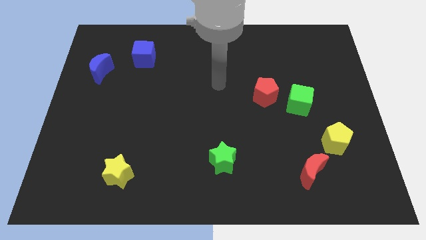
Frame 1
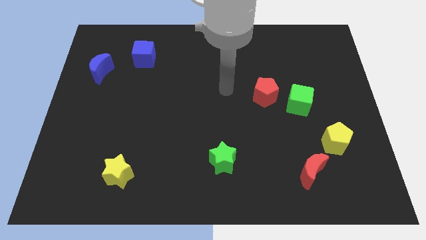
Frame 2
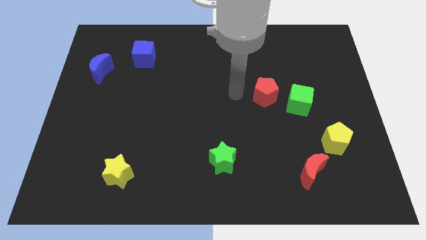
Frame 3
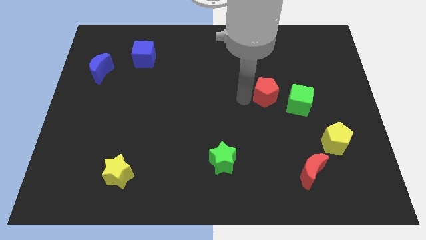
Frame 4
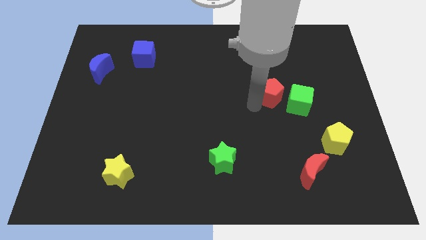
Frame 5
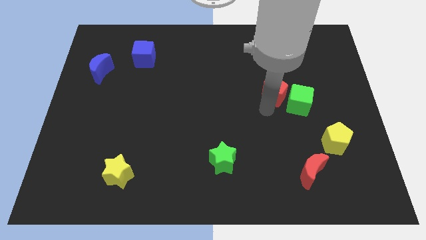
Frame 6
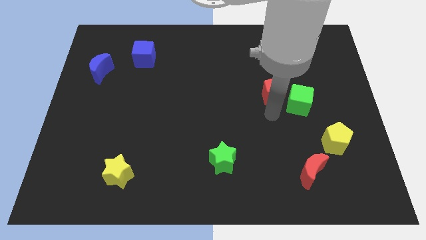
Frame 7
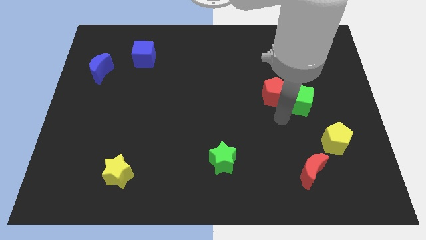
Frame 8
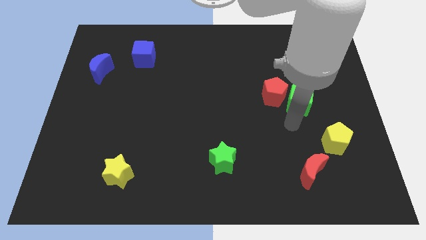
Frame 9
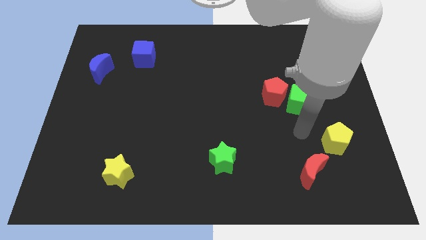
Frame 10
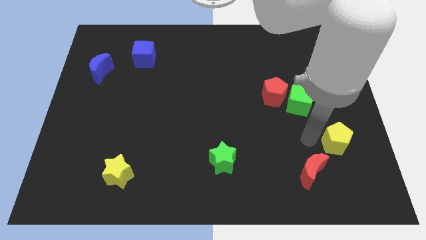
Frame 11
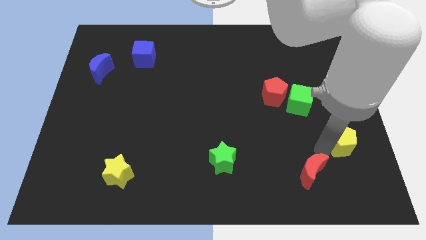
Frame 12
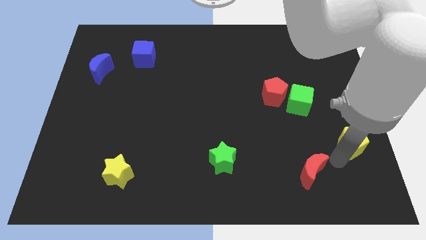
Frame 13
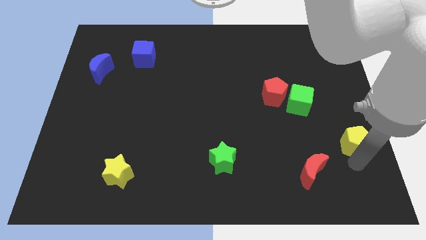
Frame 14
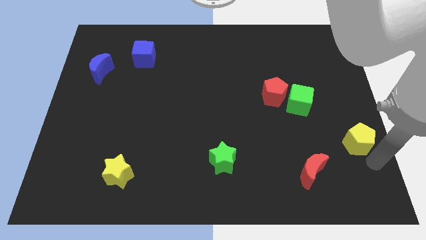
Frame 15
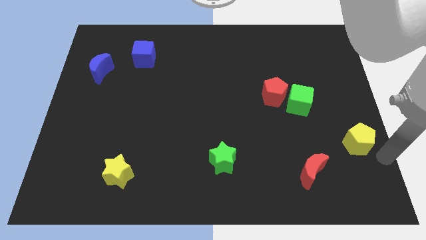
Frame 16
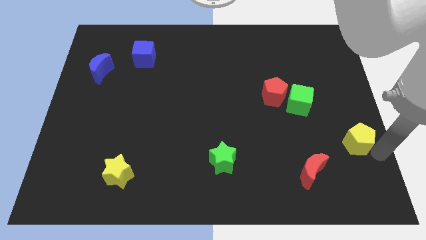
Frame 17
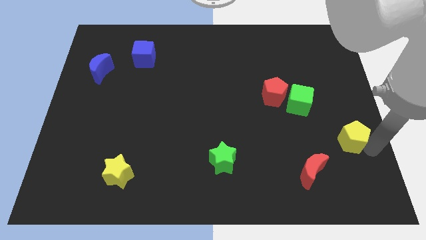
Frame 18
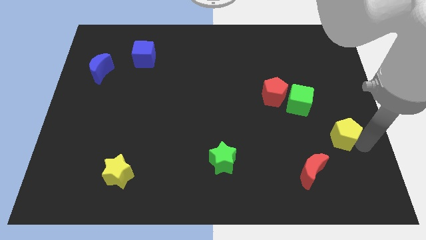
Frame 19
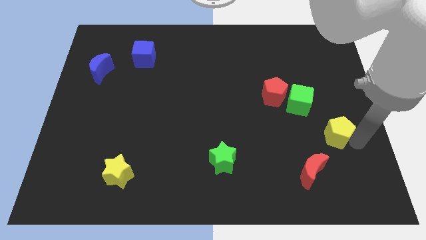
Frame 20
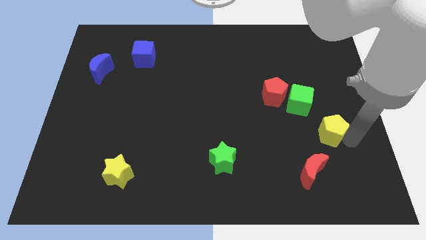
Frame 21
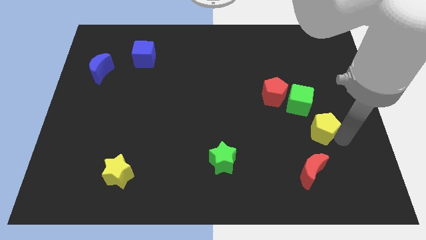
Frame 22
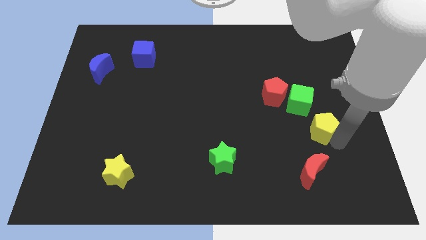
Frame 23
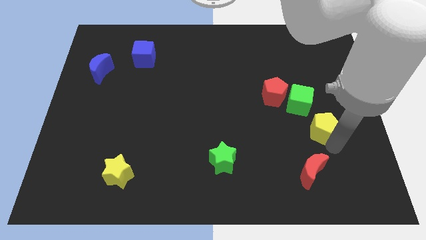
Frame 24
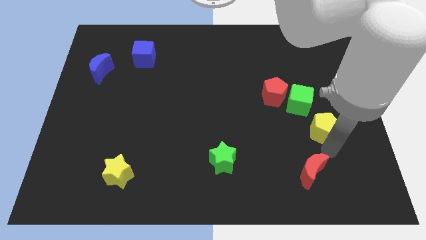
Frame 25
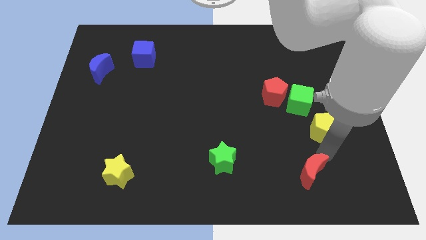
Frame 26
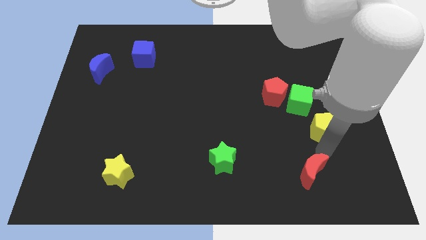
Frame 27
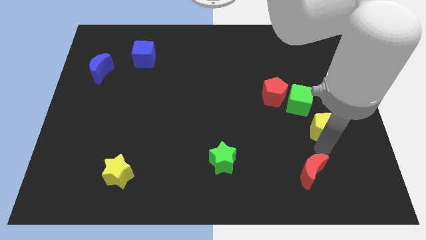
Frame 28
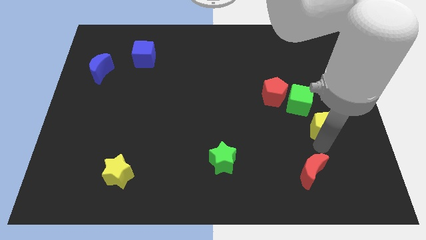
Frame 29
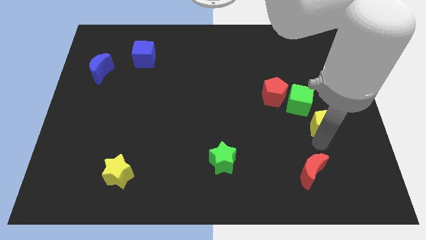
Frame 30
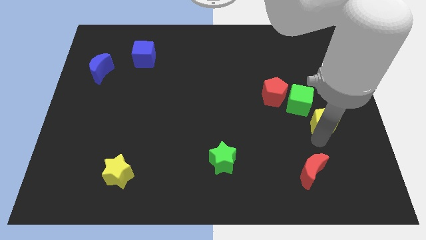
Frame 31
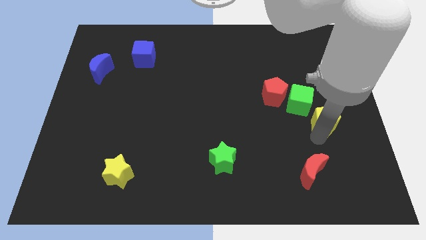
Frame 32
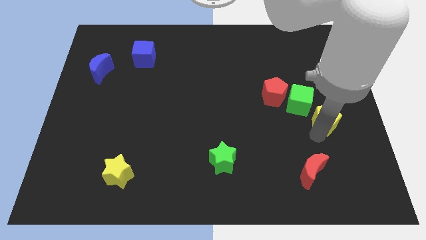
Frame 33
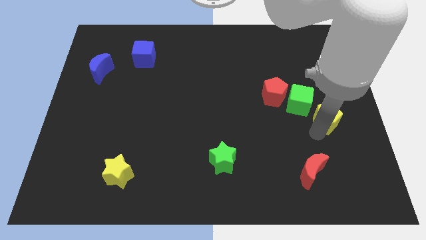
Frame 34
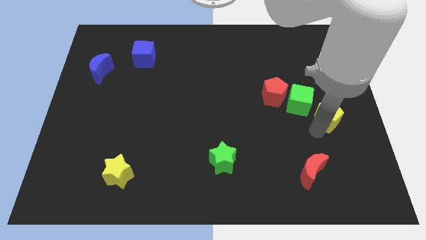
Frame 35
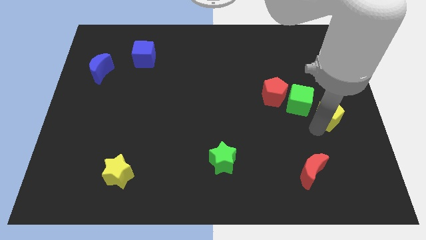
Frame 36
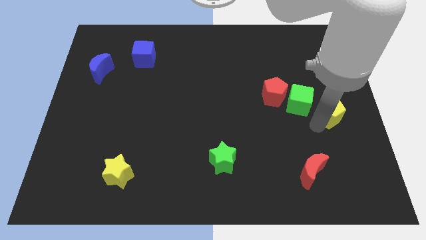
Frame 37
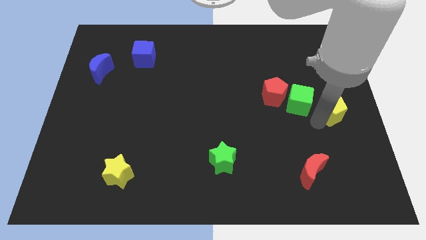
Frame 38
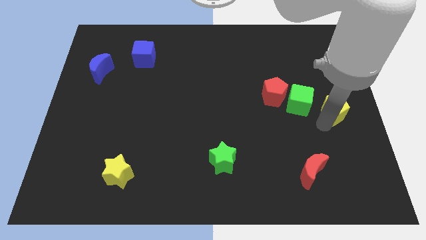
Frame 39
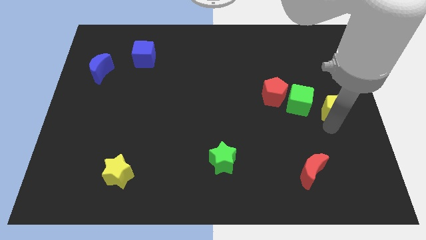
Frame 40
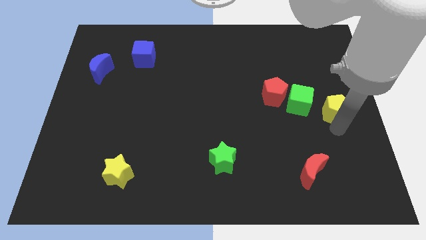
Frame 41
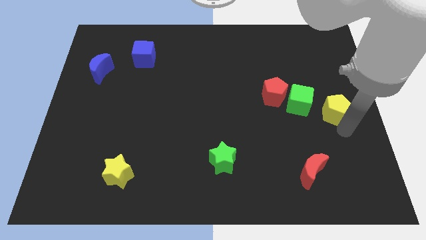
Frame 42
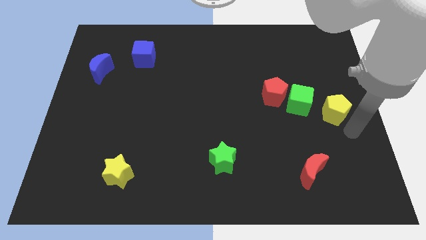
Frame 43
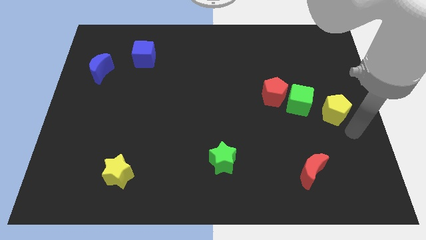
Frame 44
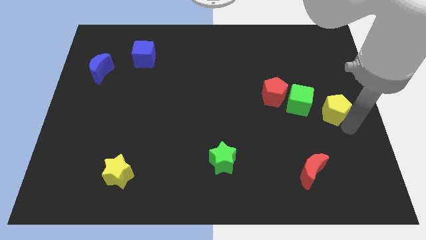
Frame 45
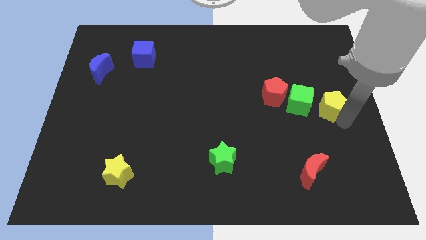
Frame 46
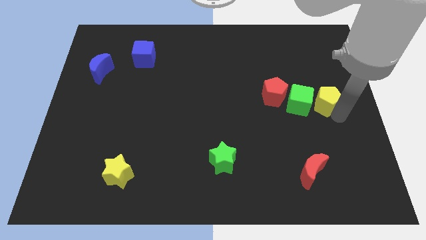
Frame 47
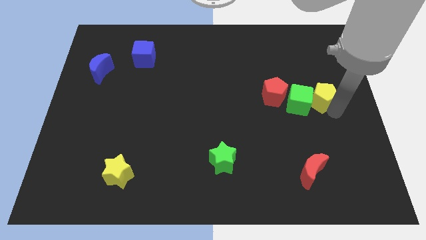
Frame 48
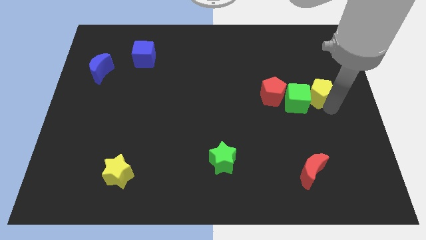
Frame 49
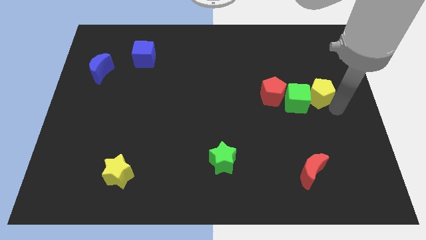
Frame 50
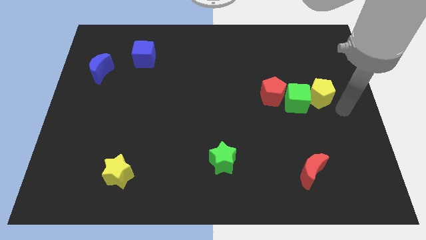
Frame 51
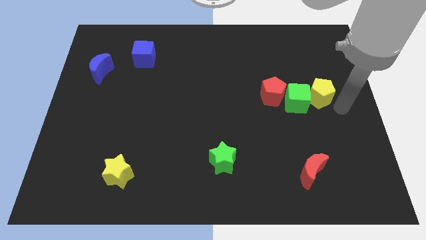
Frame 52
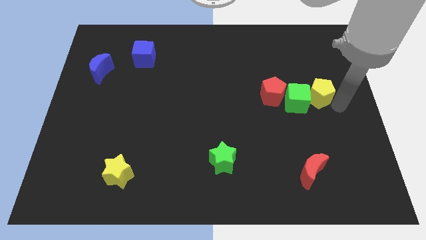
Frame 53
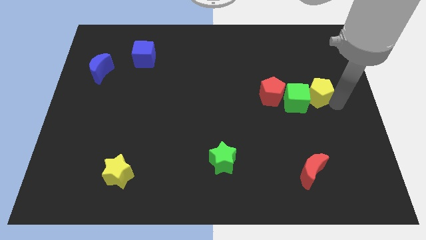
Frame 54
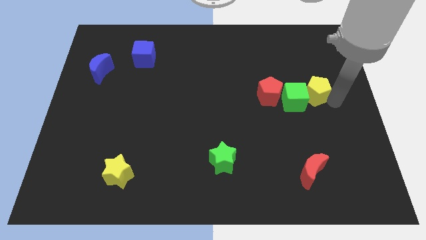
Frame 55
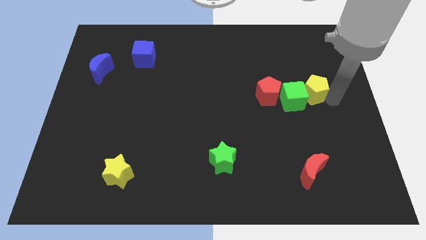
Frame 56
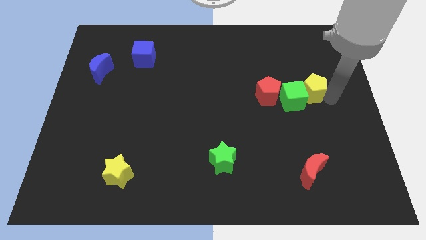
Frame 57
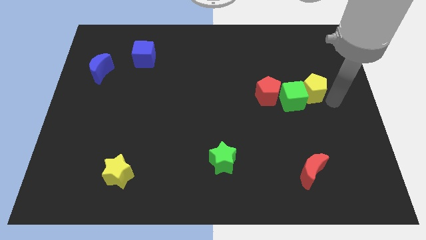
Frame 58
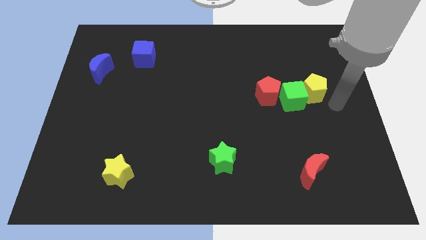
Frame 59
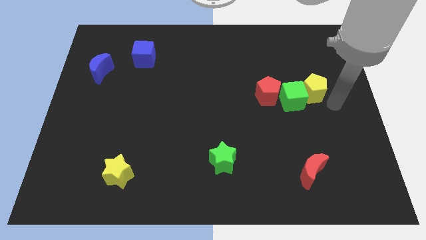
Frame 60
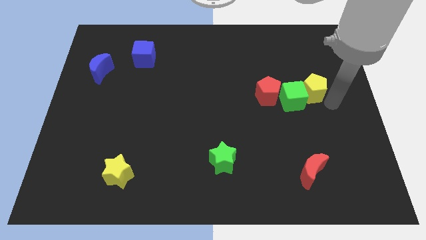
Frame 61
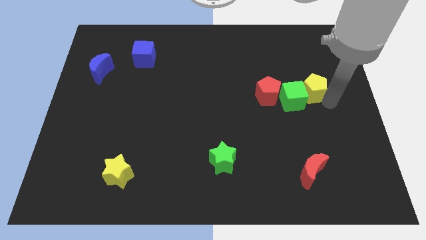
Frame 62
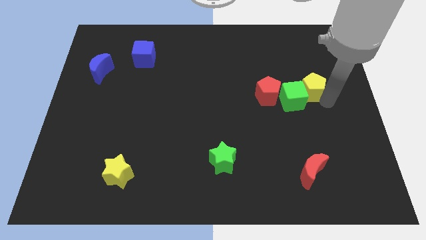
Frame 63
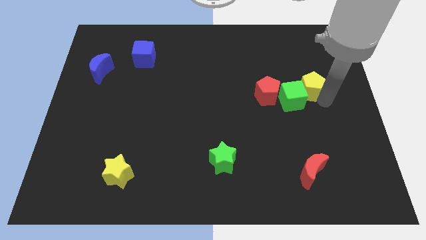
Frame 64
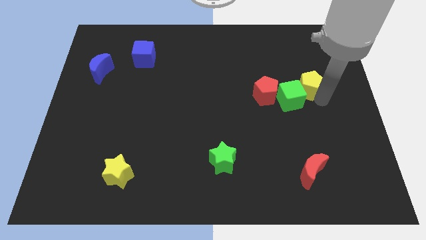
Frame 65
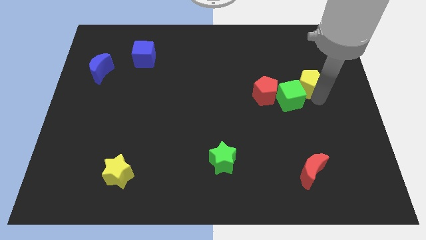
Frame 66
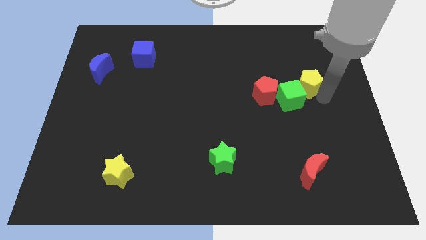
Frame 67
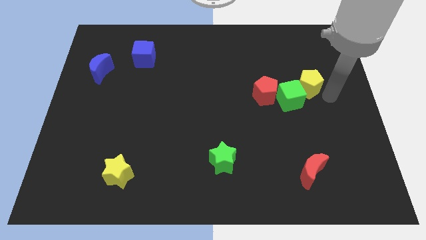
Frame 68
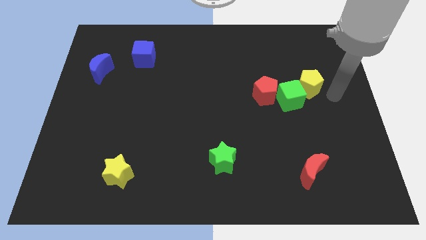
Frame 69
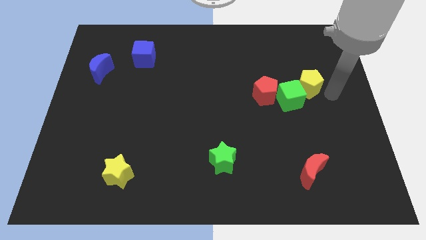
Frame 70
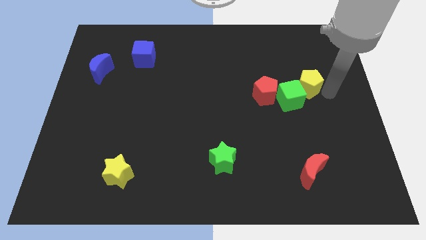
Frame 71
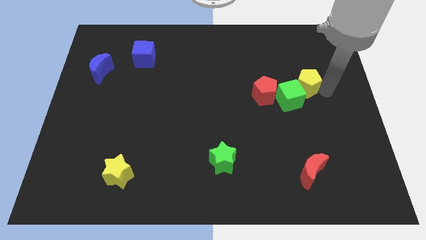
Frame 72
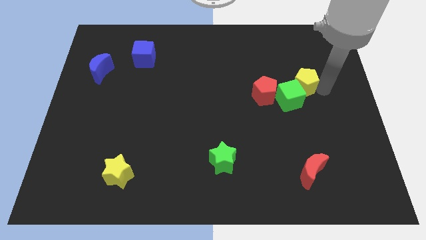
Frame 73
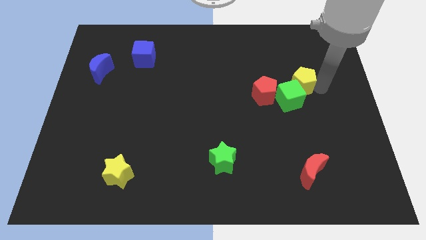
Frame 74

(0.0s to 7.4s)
slide the yellow pentagon to the top right side of the red pentagon
